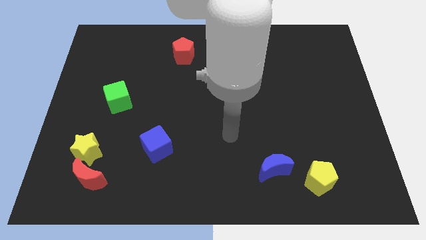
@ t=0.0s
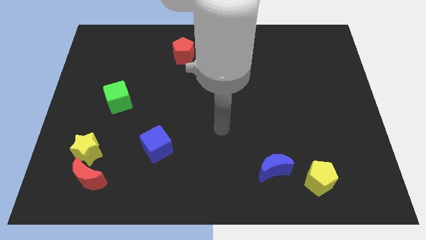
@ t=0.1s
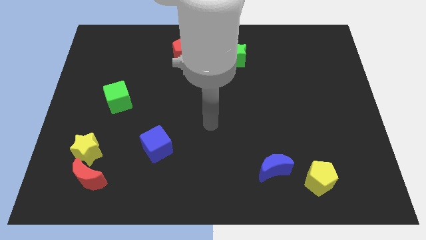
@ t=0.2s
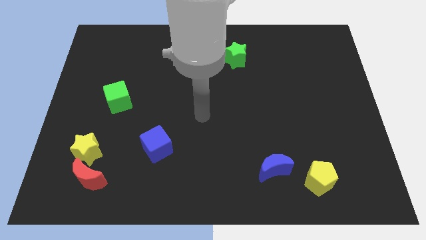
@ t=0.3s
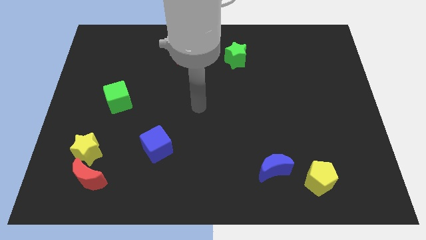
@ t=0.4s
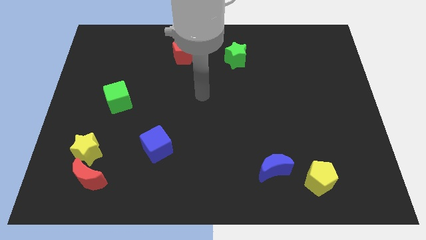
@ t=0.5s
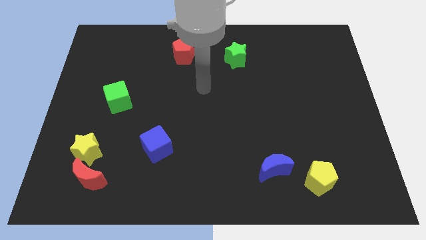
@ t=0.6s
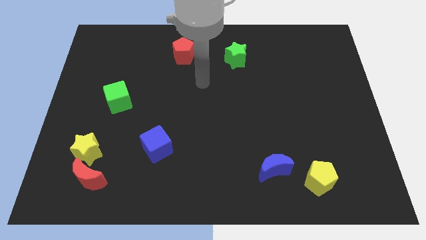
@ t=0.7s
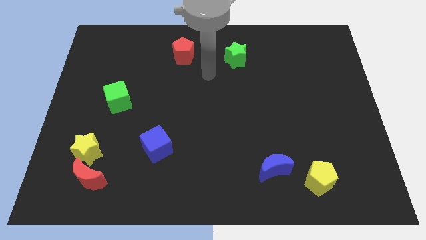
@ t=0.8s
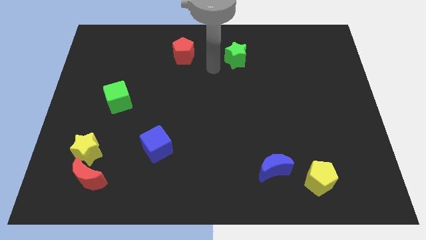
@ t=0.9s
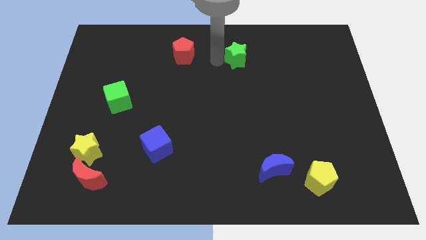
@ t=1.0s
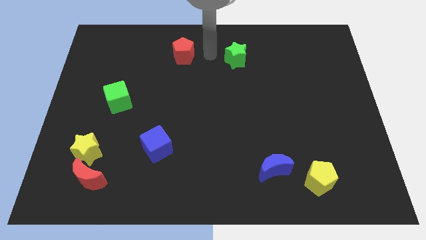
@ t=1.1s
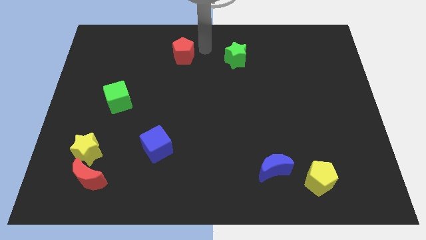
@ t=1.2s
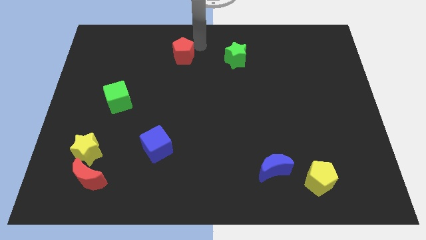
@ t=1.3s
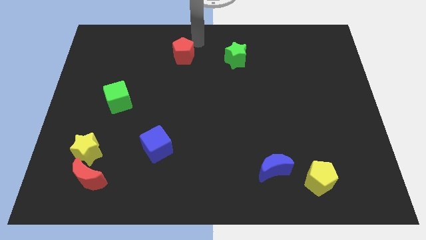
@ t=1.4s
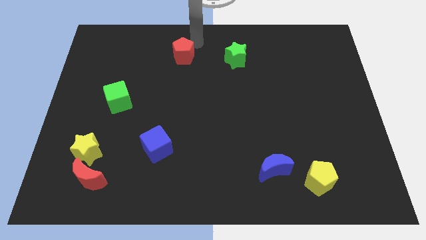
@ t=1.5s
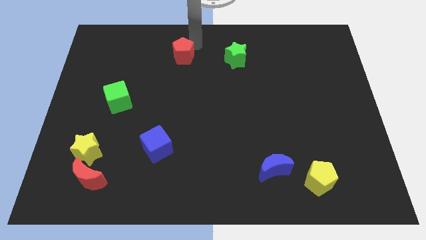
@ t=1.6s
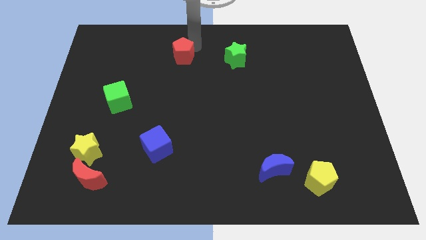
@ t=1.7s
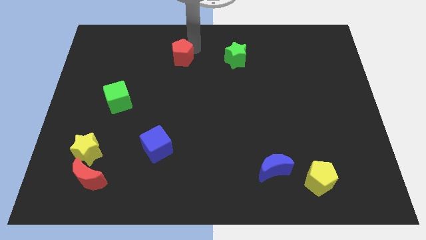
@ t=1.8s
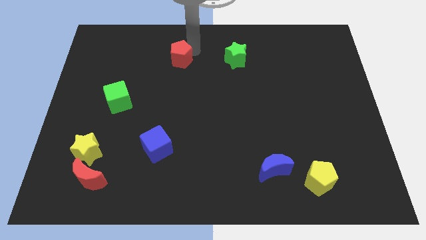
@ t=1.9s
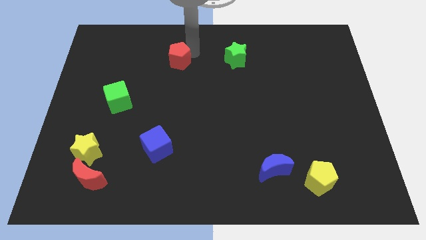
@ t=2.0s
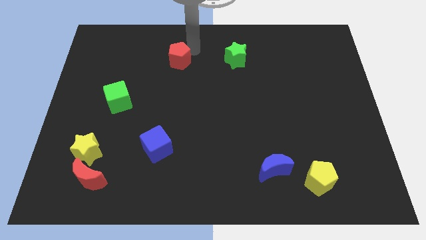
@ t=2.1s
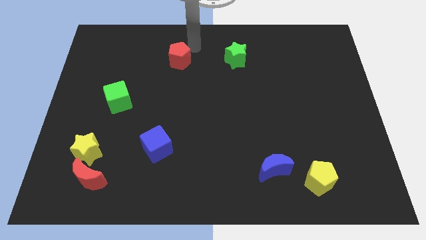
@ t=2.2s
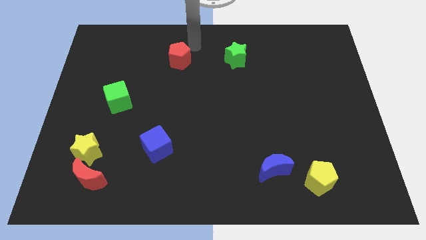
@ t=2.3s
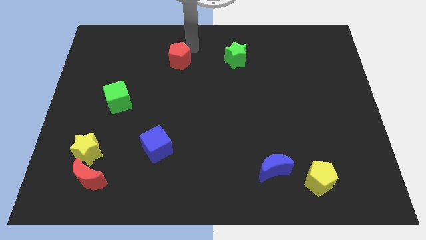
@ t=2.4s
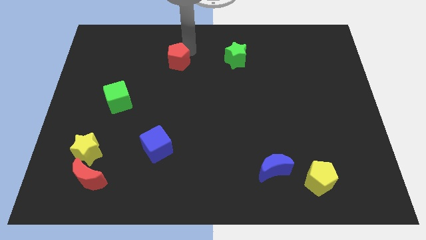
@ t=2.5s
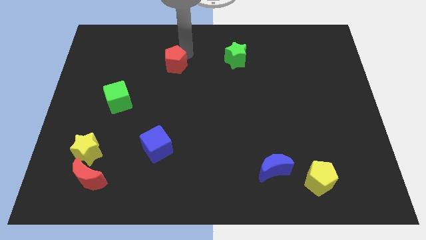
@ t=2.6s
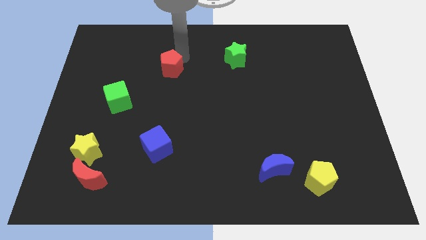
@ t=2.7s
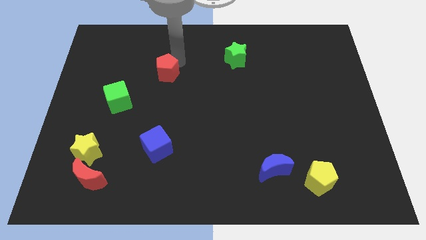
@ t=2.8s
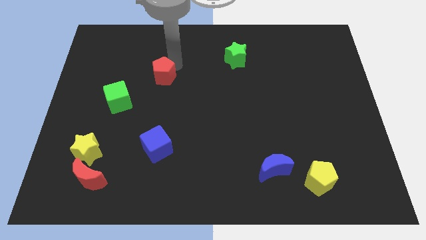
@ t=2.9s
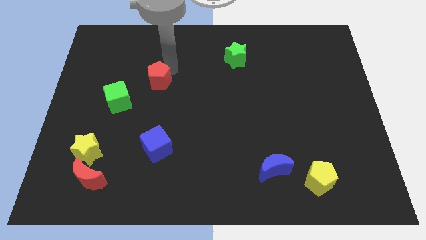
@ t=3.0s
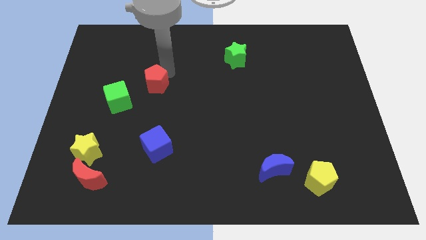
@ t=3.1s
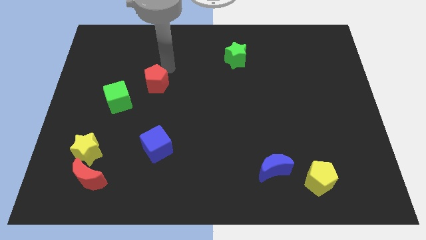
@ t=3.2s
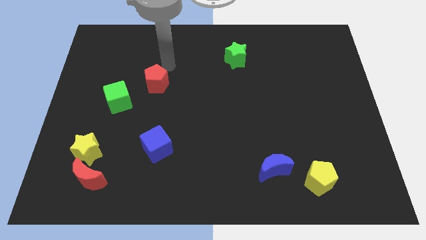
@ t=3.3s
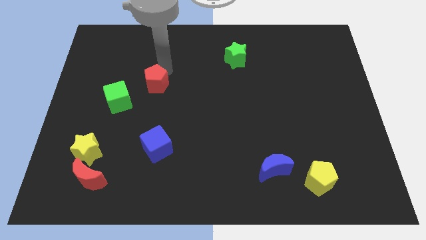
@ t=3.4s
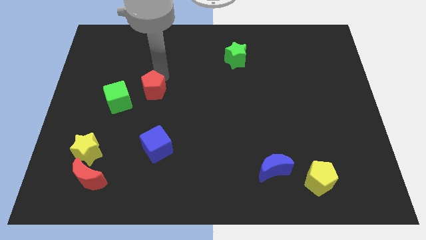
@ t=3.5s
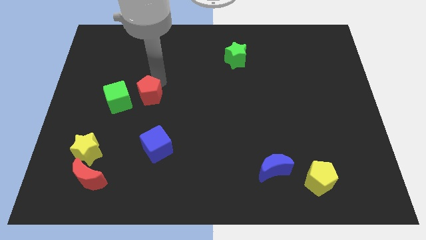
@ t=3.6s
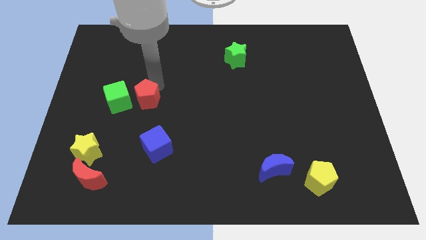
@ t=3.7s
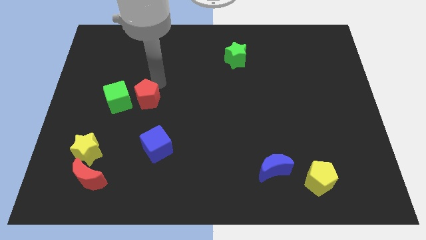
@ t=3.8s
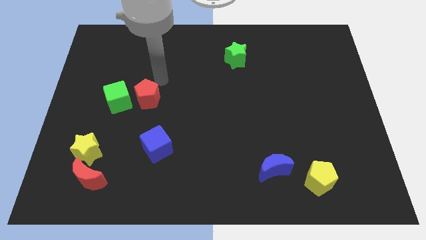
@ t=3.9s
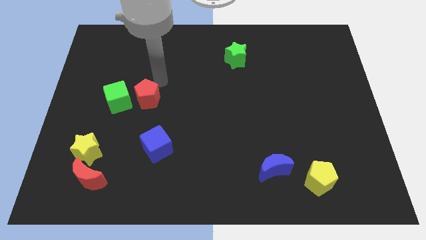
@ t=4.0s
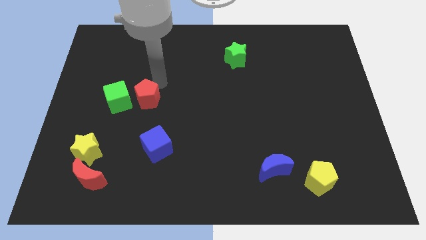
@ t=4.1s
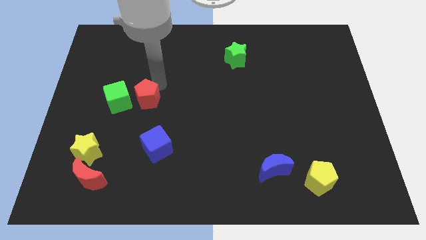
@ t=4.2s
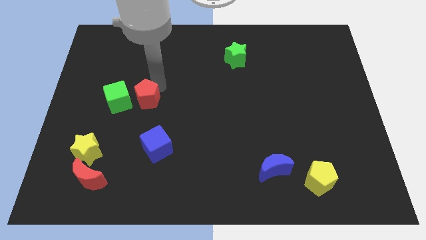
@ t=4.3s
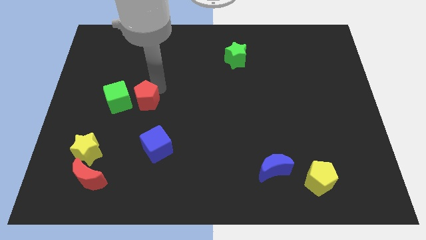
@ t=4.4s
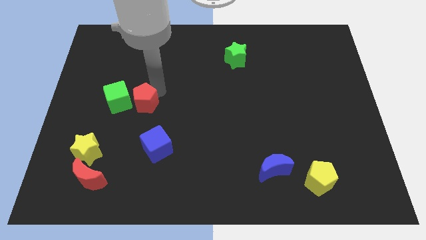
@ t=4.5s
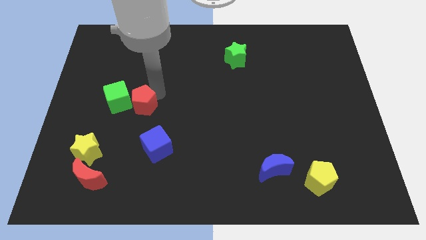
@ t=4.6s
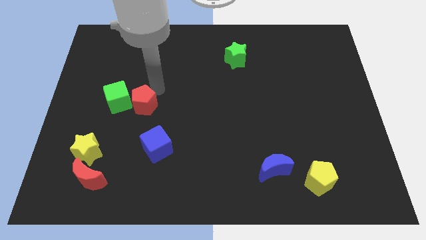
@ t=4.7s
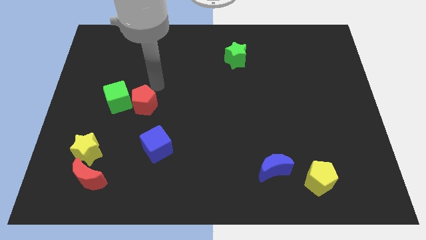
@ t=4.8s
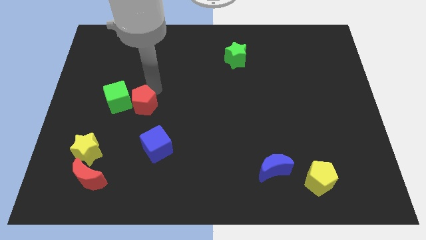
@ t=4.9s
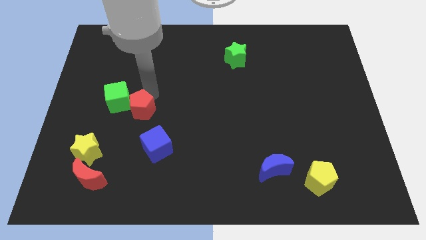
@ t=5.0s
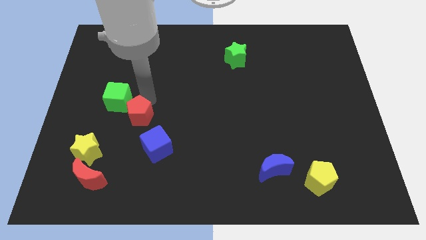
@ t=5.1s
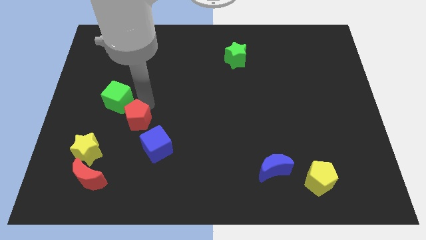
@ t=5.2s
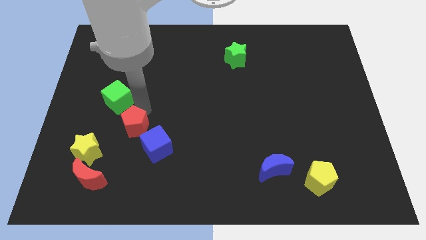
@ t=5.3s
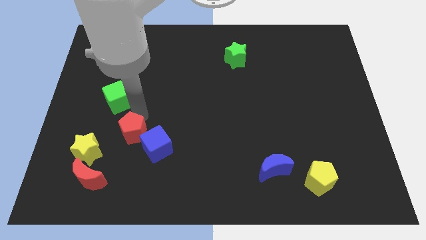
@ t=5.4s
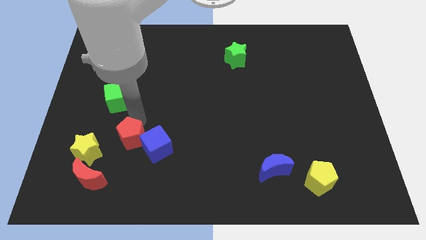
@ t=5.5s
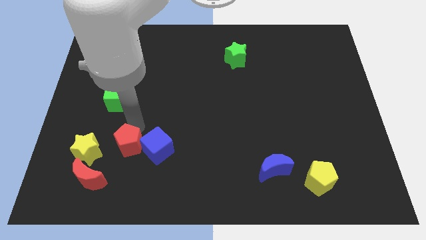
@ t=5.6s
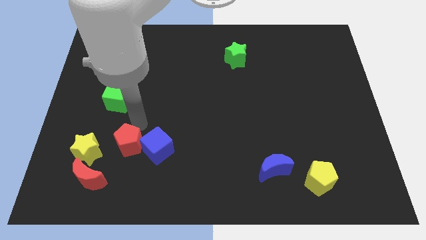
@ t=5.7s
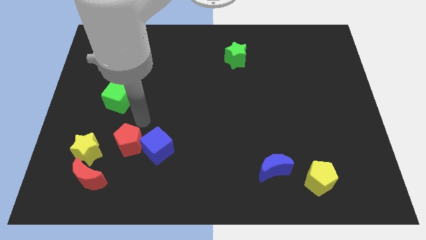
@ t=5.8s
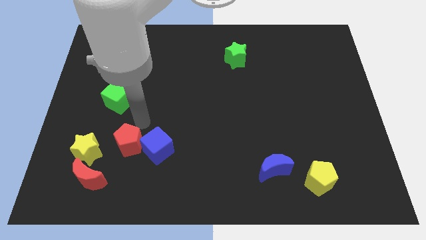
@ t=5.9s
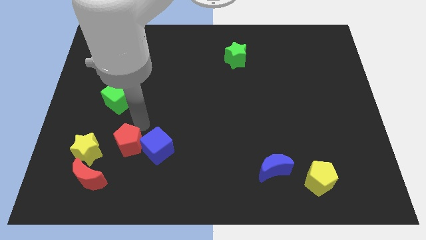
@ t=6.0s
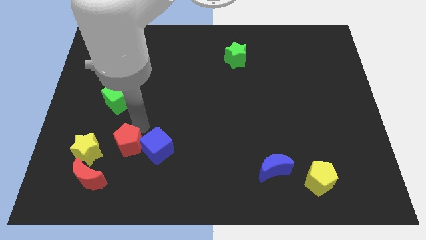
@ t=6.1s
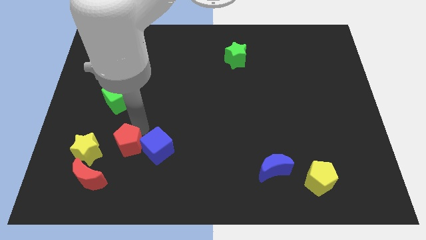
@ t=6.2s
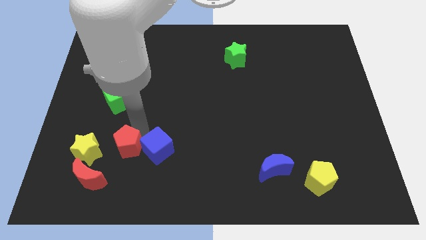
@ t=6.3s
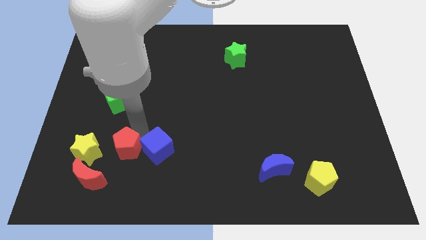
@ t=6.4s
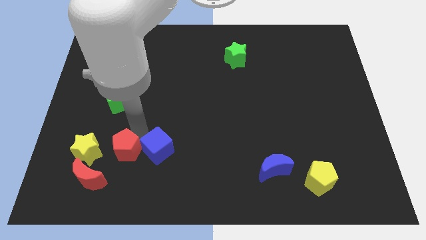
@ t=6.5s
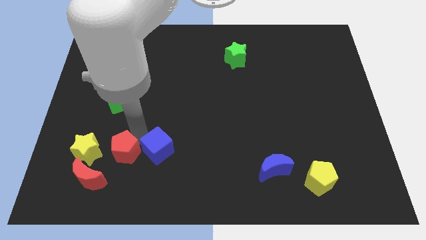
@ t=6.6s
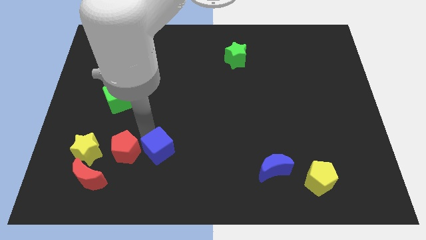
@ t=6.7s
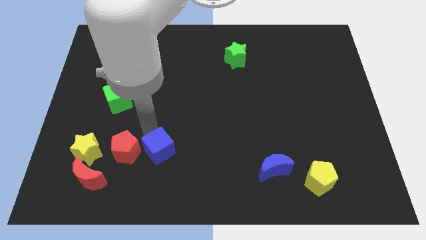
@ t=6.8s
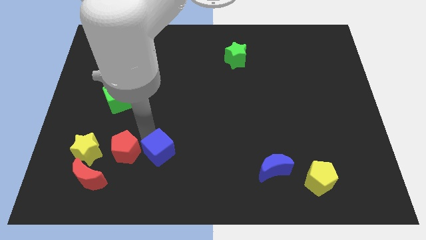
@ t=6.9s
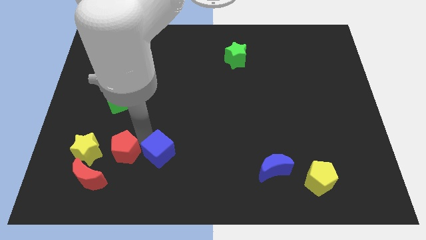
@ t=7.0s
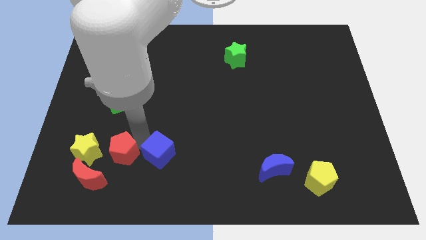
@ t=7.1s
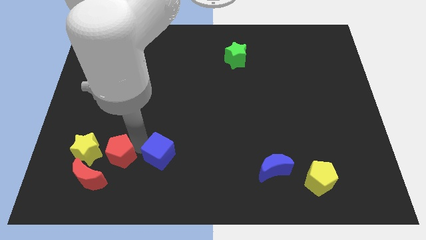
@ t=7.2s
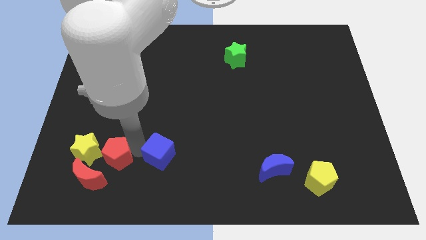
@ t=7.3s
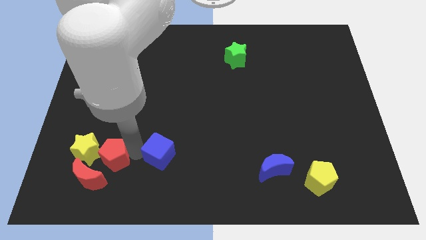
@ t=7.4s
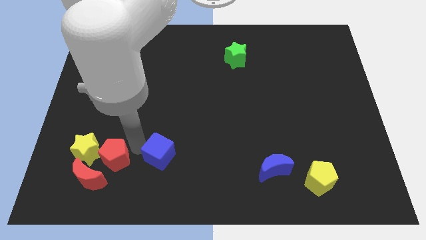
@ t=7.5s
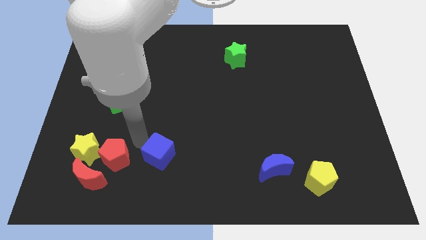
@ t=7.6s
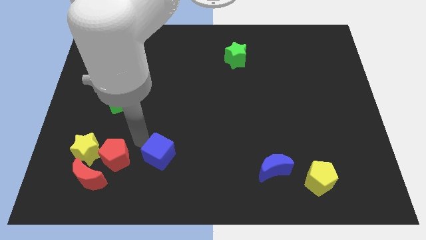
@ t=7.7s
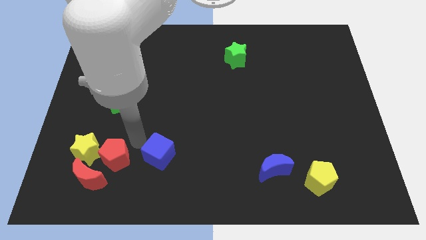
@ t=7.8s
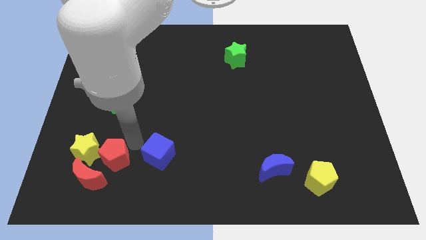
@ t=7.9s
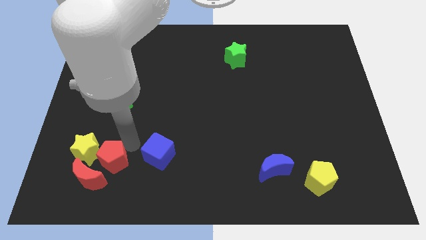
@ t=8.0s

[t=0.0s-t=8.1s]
slide the red pentagon towards the red moon
